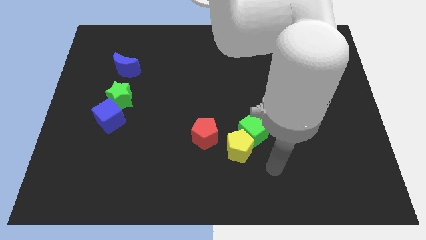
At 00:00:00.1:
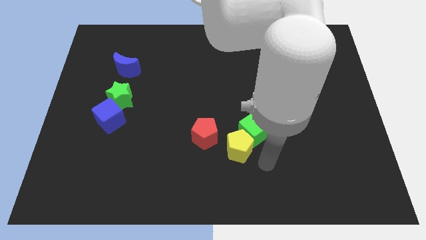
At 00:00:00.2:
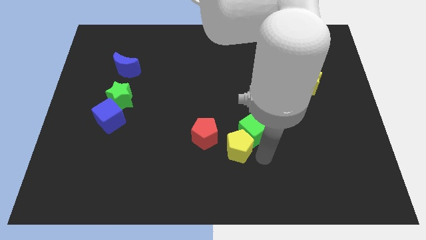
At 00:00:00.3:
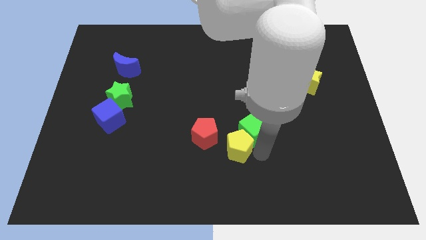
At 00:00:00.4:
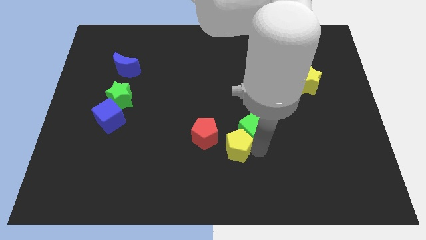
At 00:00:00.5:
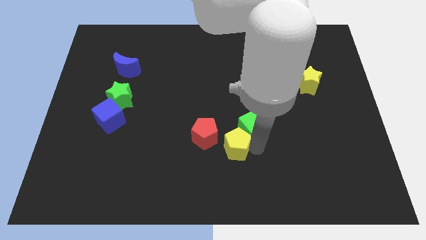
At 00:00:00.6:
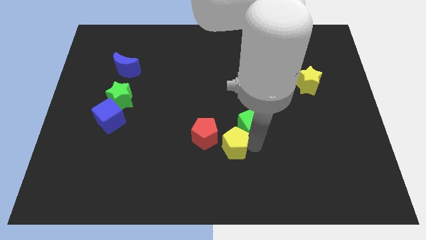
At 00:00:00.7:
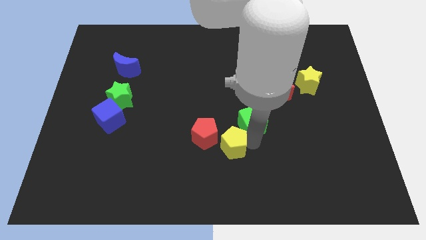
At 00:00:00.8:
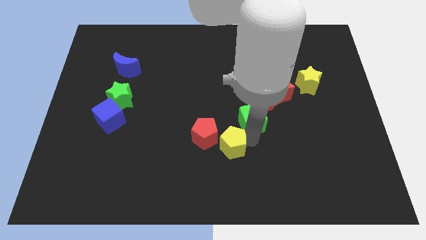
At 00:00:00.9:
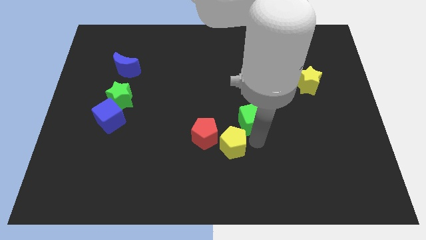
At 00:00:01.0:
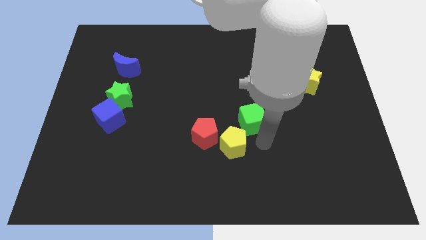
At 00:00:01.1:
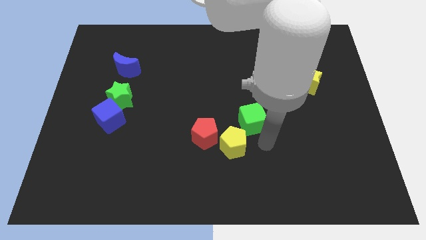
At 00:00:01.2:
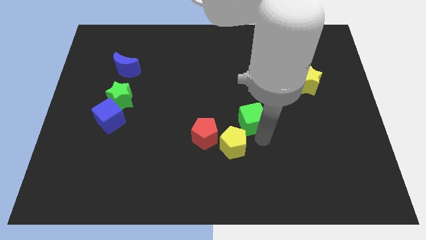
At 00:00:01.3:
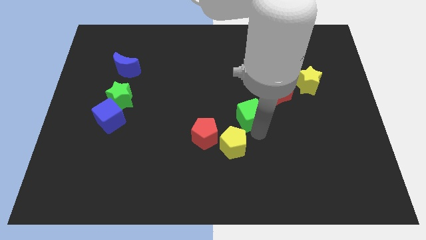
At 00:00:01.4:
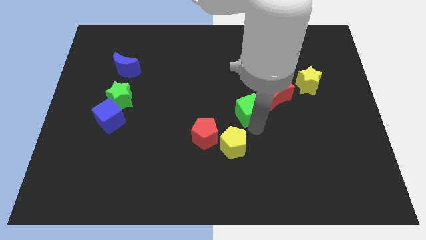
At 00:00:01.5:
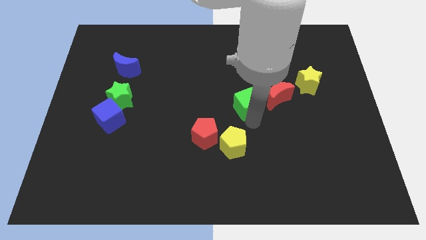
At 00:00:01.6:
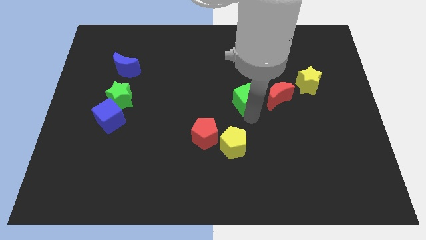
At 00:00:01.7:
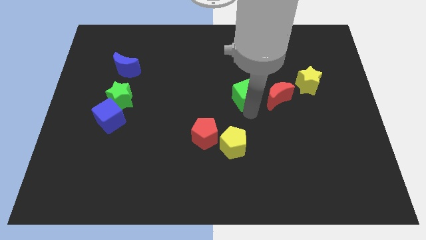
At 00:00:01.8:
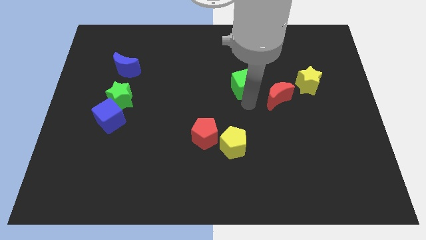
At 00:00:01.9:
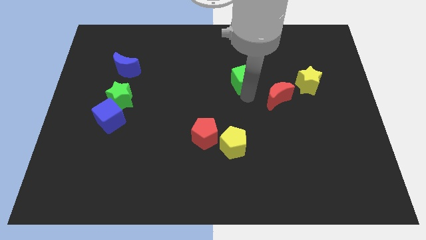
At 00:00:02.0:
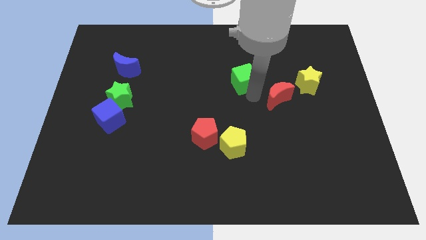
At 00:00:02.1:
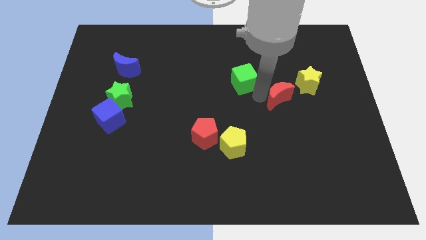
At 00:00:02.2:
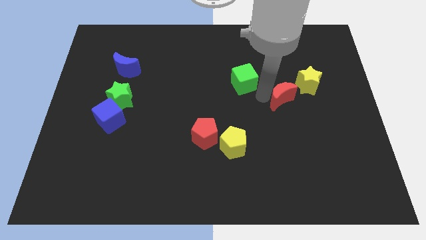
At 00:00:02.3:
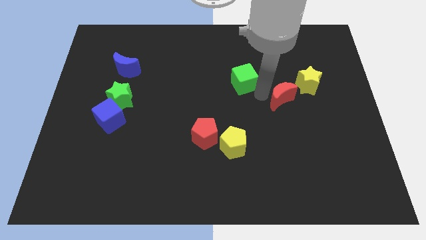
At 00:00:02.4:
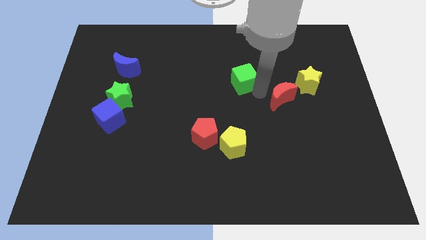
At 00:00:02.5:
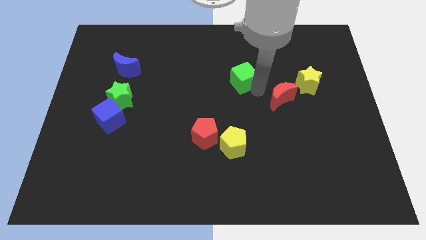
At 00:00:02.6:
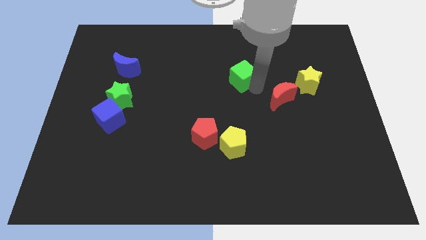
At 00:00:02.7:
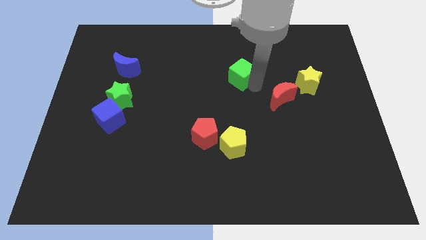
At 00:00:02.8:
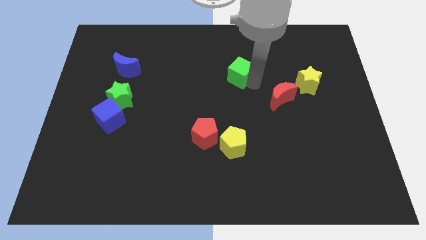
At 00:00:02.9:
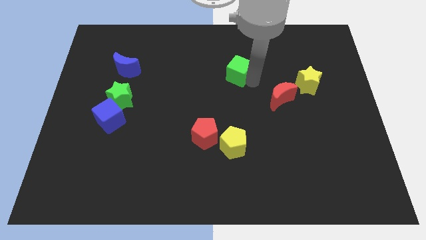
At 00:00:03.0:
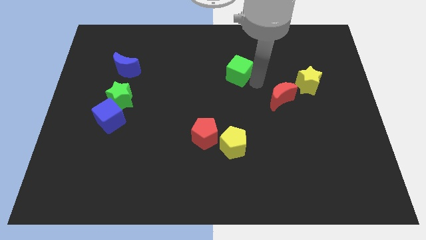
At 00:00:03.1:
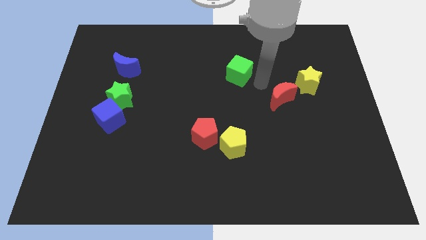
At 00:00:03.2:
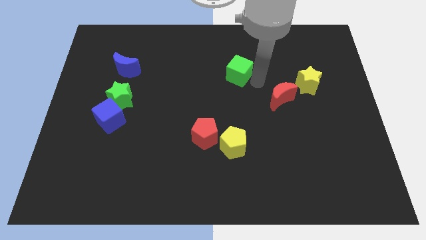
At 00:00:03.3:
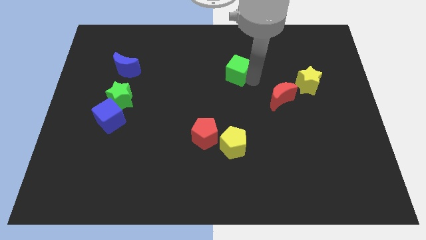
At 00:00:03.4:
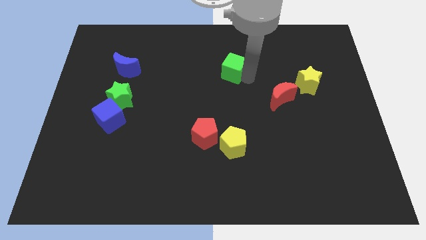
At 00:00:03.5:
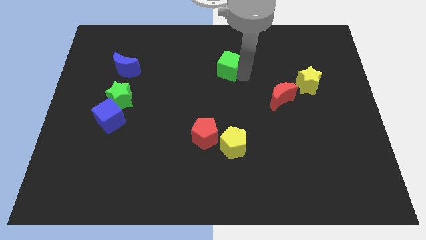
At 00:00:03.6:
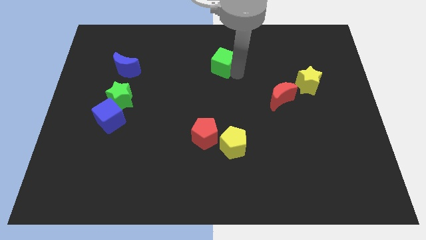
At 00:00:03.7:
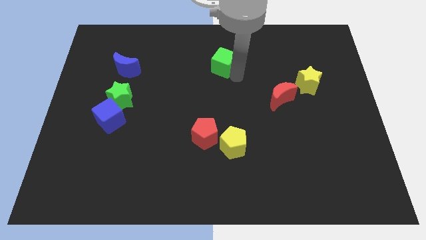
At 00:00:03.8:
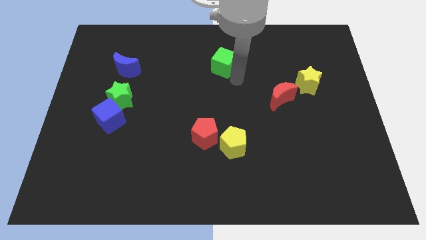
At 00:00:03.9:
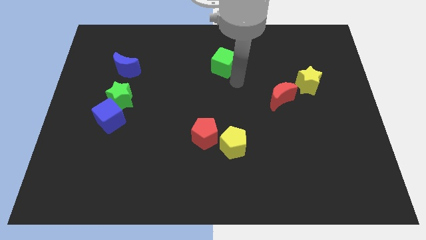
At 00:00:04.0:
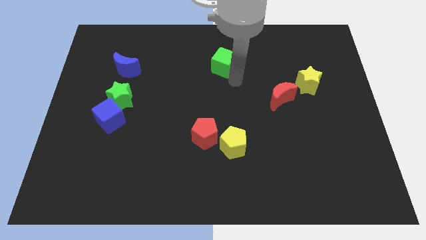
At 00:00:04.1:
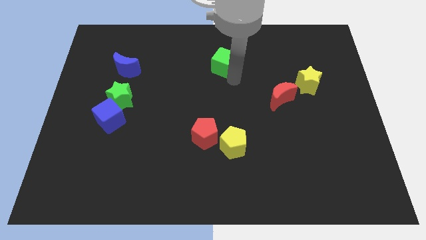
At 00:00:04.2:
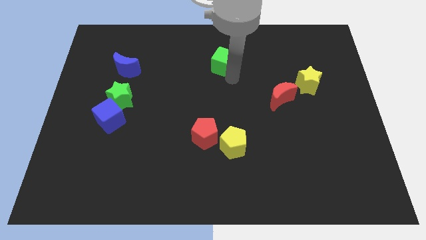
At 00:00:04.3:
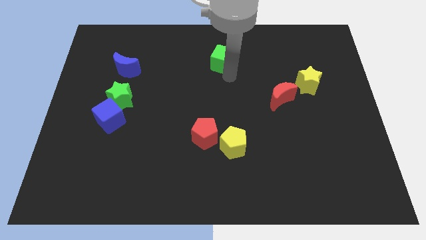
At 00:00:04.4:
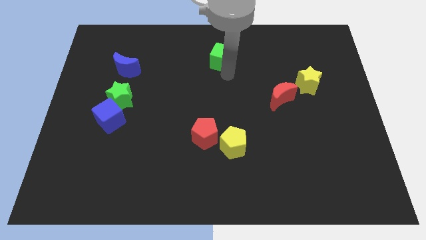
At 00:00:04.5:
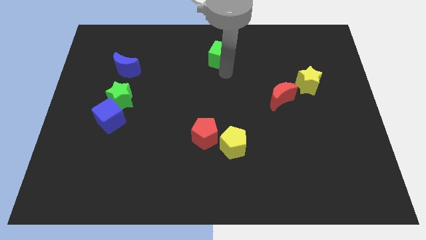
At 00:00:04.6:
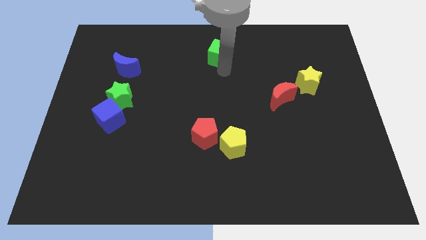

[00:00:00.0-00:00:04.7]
put the green cube to the top side

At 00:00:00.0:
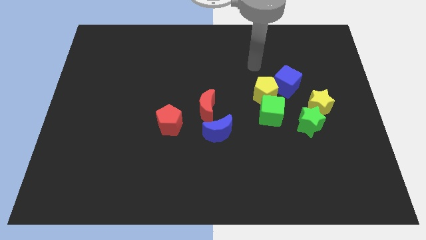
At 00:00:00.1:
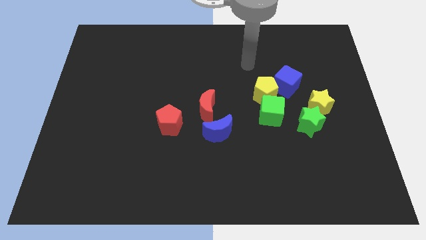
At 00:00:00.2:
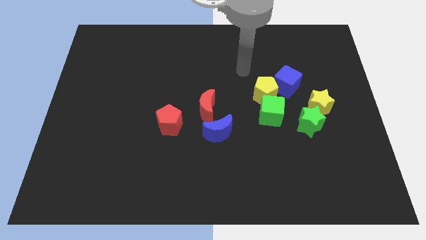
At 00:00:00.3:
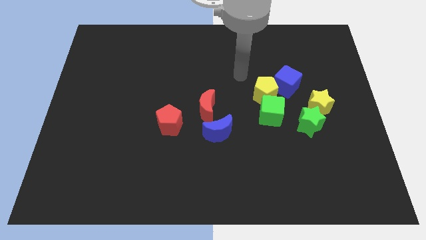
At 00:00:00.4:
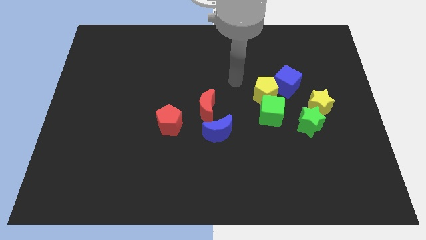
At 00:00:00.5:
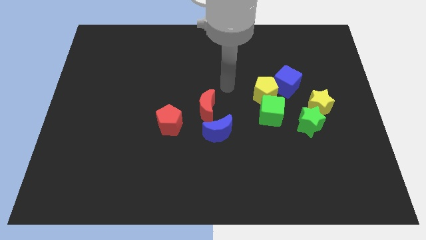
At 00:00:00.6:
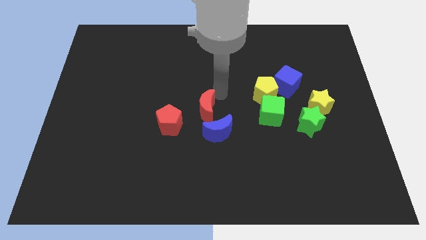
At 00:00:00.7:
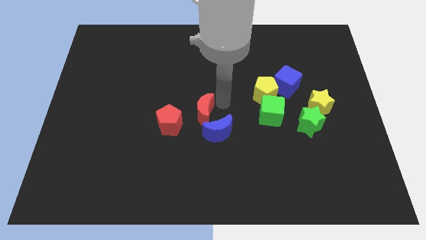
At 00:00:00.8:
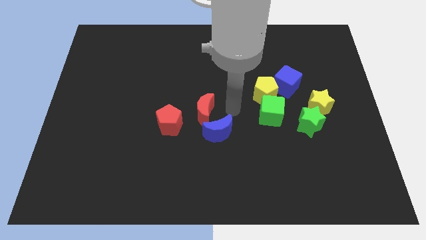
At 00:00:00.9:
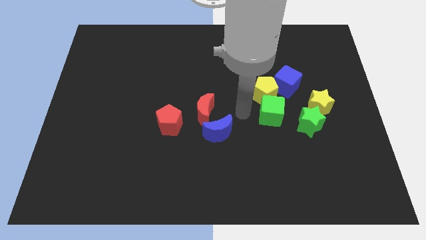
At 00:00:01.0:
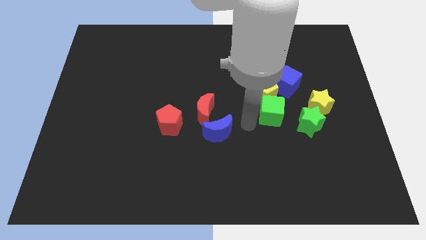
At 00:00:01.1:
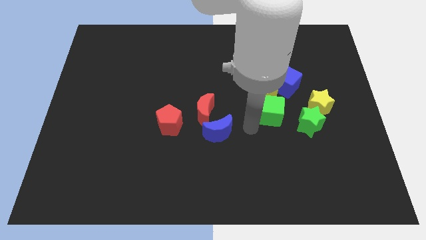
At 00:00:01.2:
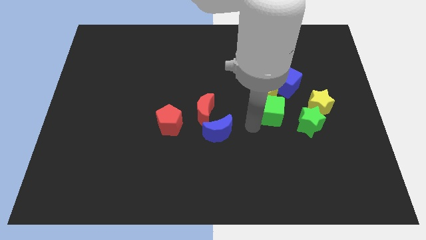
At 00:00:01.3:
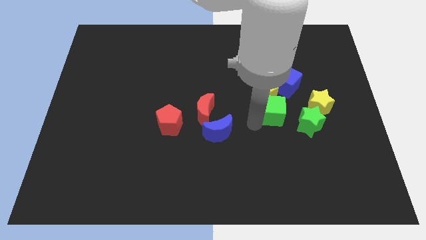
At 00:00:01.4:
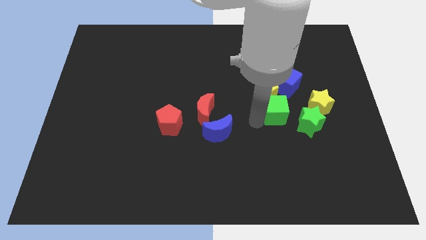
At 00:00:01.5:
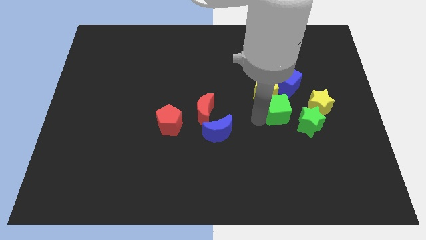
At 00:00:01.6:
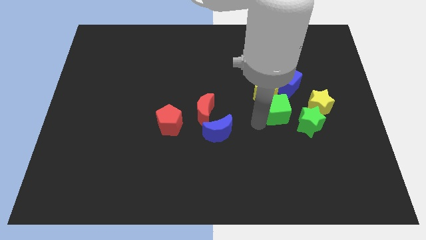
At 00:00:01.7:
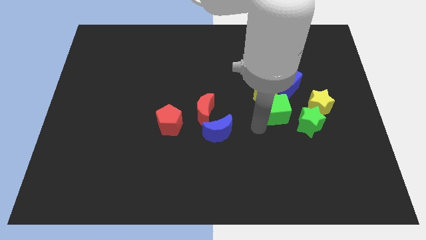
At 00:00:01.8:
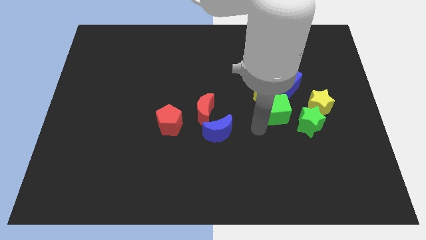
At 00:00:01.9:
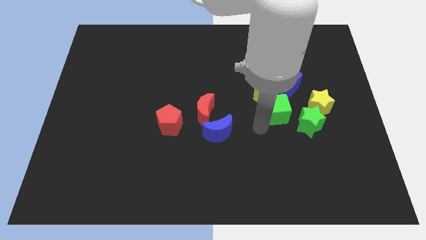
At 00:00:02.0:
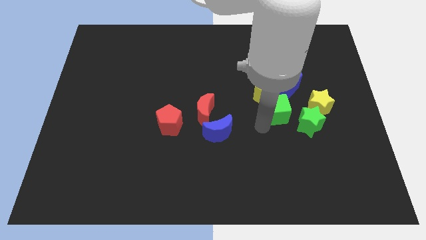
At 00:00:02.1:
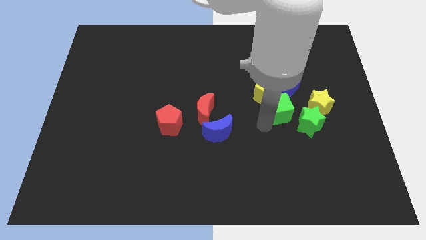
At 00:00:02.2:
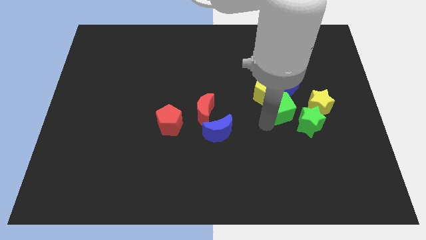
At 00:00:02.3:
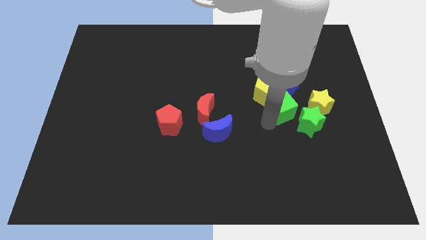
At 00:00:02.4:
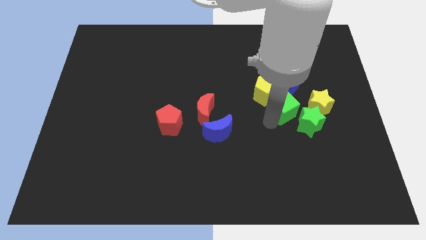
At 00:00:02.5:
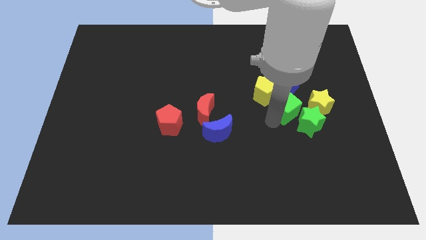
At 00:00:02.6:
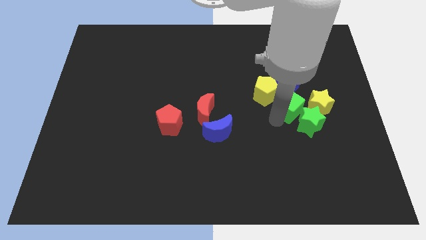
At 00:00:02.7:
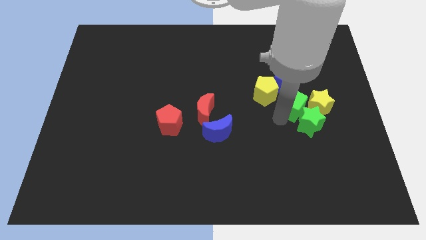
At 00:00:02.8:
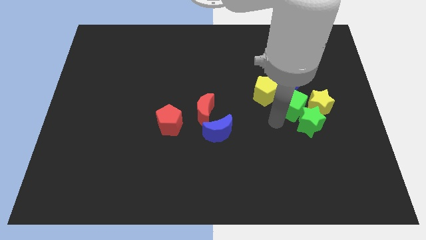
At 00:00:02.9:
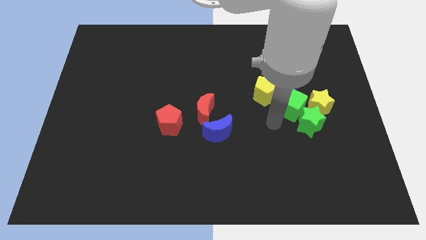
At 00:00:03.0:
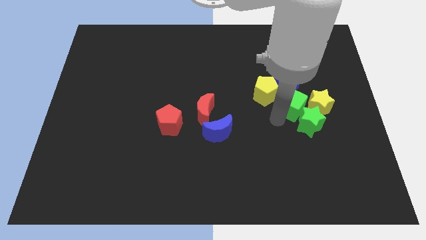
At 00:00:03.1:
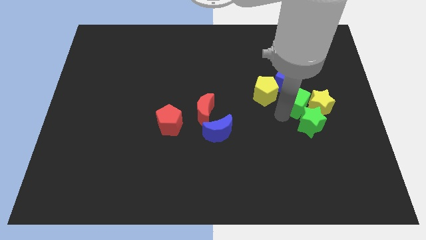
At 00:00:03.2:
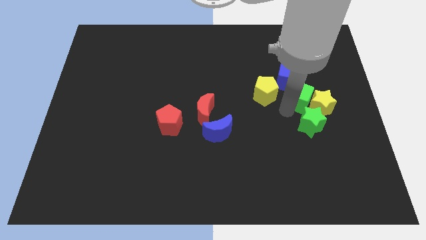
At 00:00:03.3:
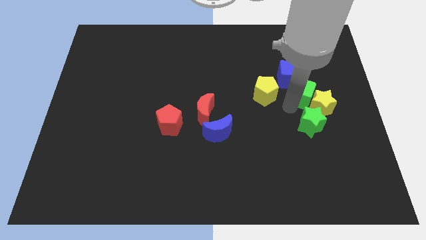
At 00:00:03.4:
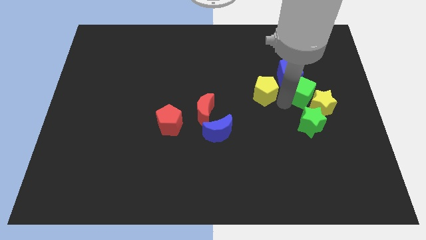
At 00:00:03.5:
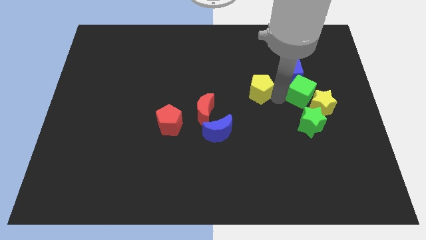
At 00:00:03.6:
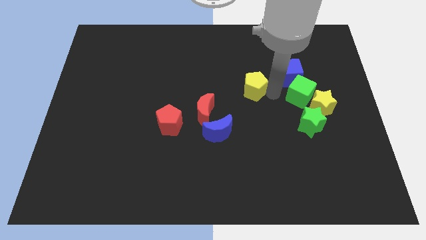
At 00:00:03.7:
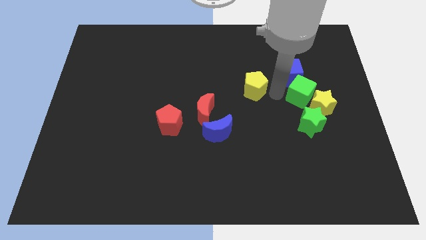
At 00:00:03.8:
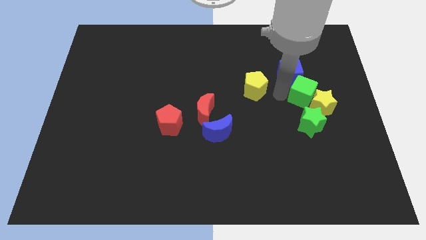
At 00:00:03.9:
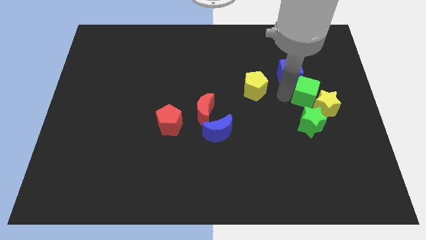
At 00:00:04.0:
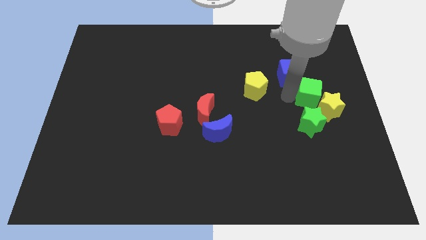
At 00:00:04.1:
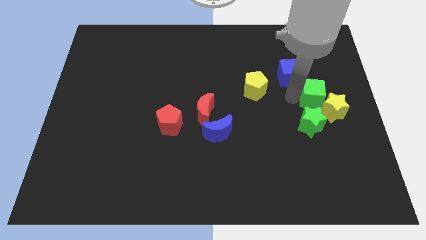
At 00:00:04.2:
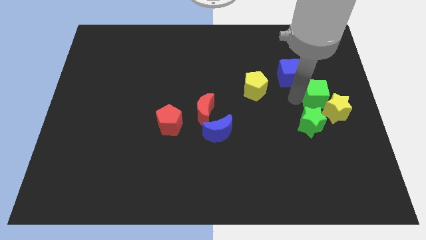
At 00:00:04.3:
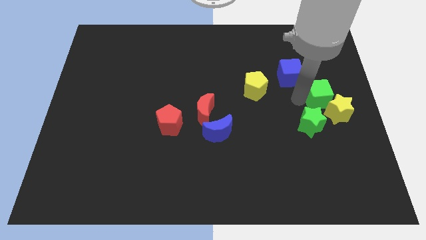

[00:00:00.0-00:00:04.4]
slide the green cube to the center right
